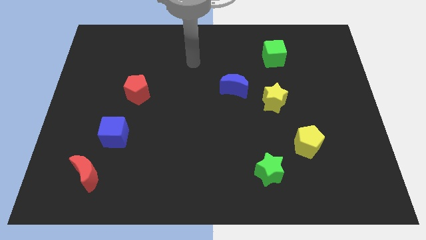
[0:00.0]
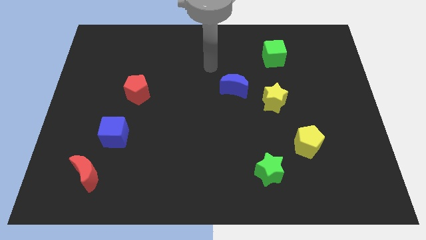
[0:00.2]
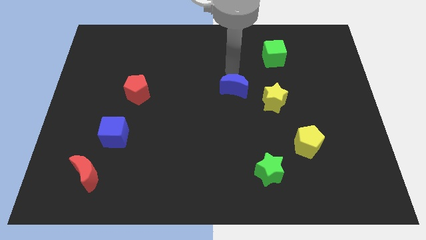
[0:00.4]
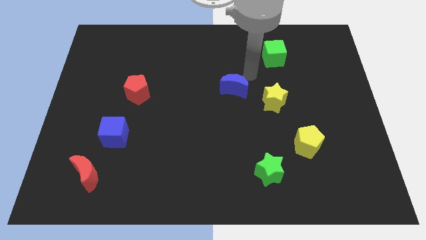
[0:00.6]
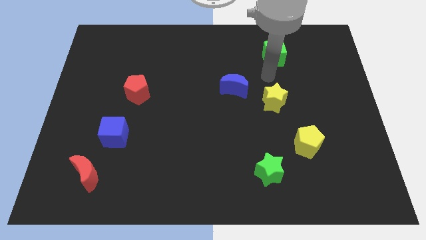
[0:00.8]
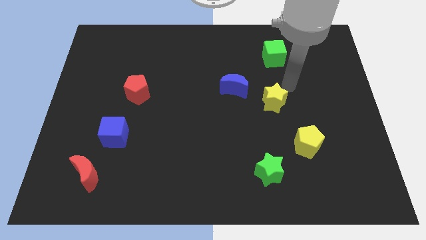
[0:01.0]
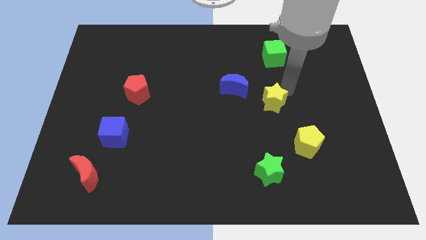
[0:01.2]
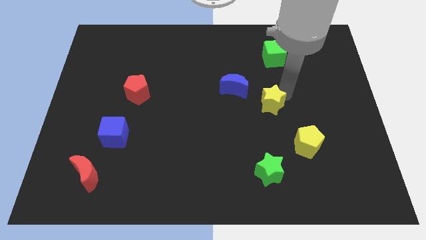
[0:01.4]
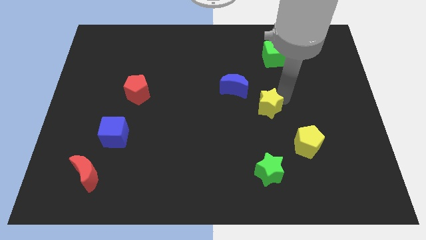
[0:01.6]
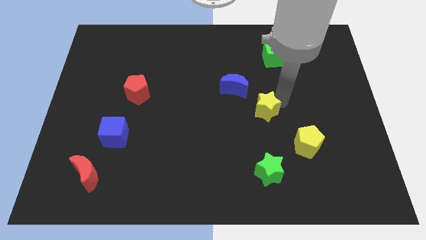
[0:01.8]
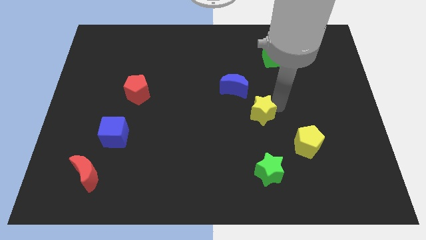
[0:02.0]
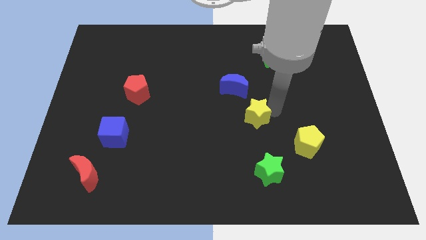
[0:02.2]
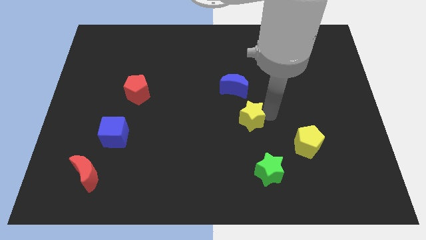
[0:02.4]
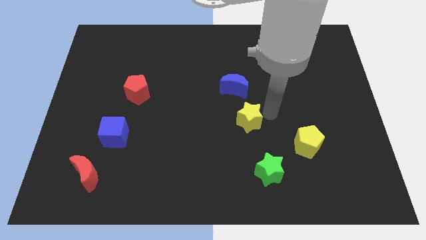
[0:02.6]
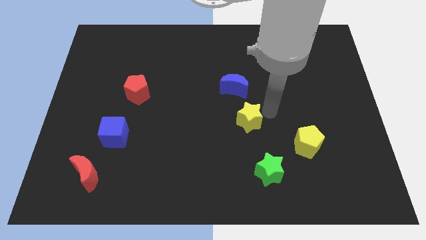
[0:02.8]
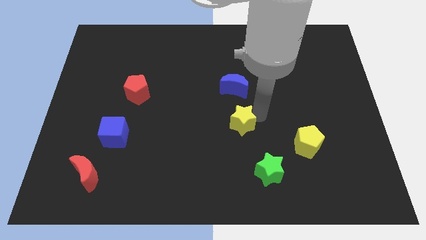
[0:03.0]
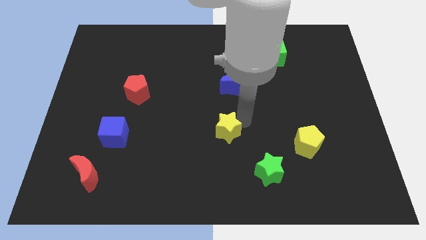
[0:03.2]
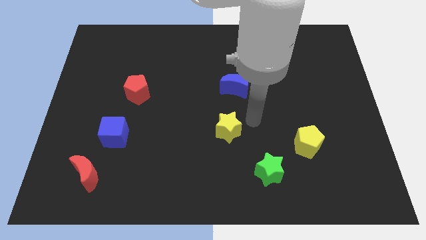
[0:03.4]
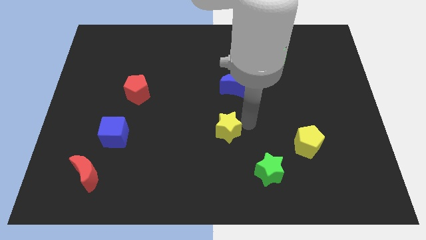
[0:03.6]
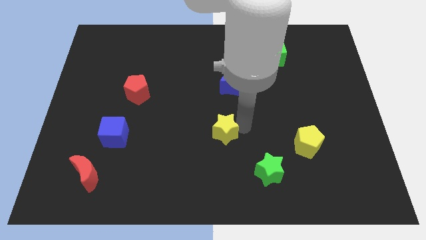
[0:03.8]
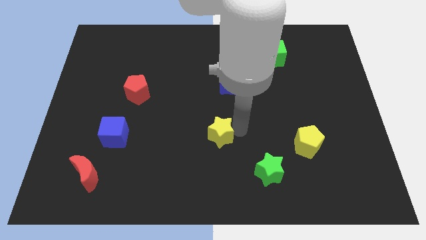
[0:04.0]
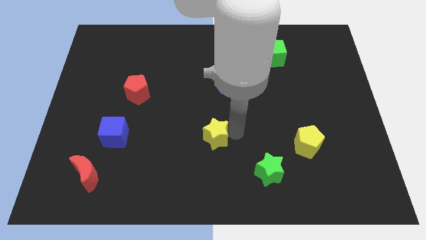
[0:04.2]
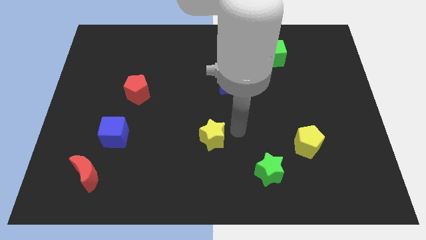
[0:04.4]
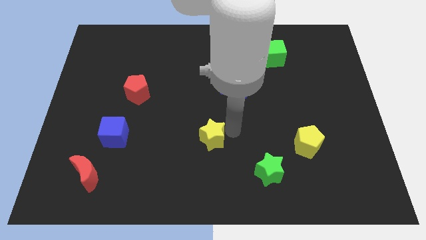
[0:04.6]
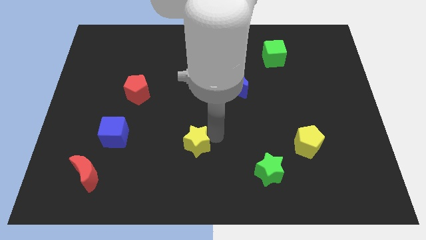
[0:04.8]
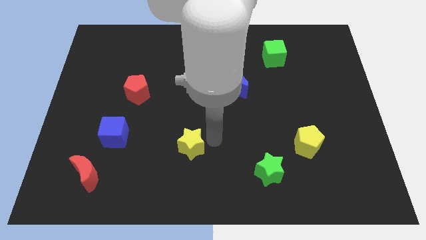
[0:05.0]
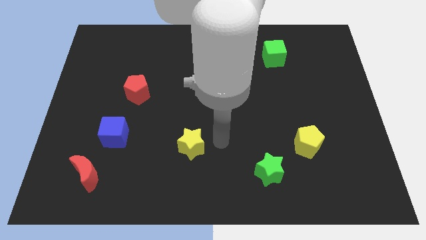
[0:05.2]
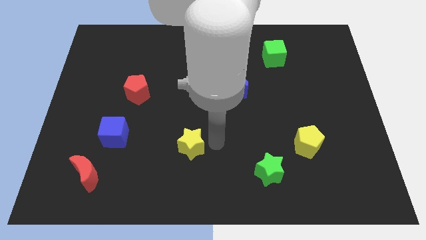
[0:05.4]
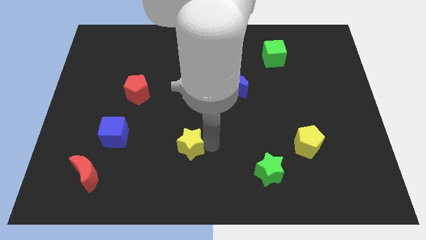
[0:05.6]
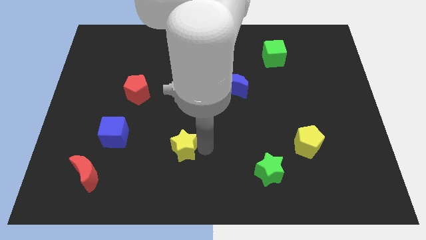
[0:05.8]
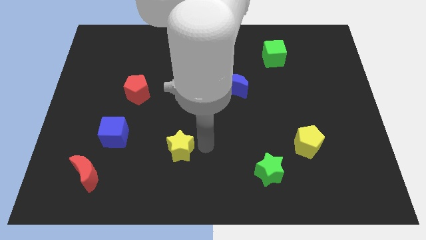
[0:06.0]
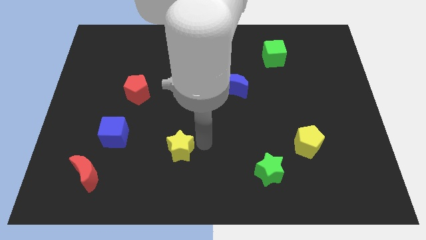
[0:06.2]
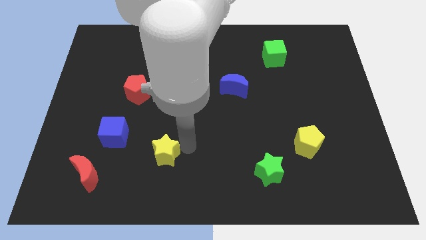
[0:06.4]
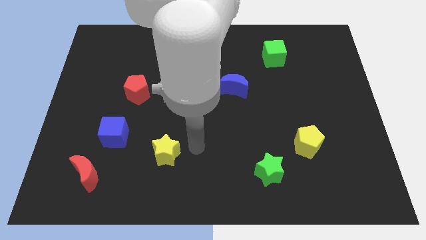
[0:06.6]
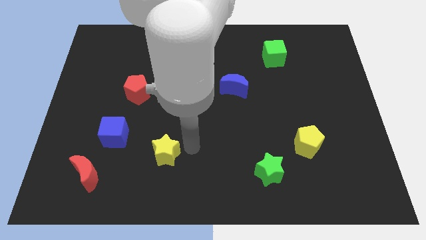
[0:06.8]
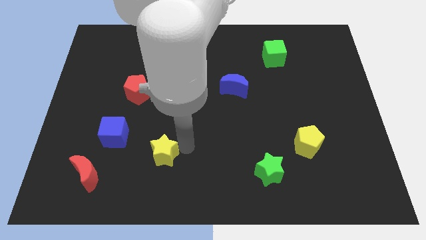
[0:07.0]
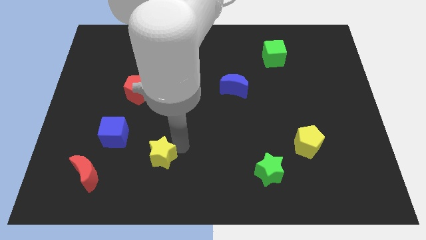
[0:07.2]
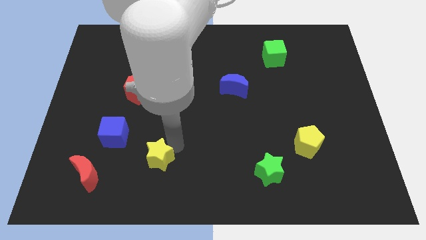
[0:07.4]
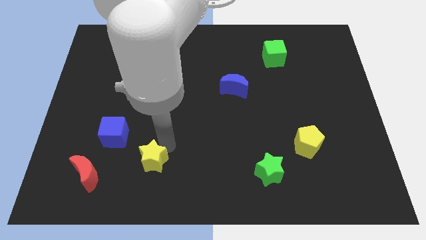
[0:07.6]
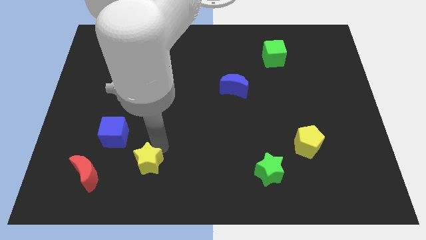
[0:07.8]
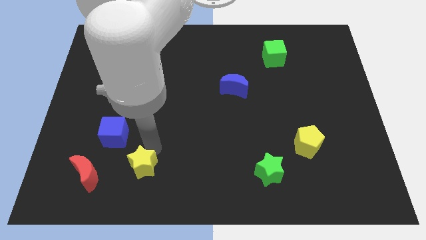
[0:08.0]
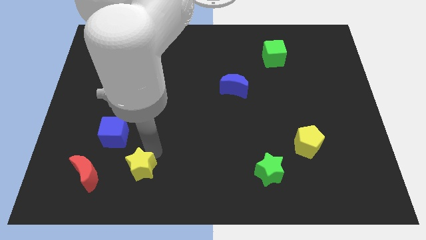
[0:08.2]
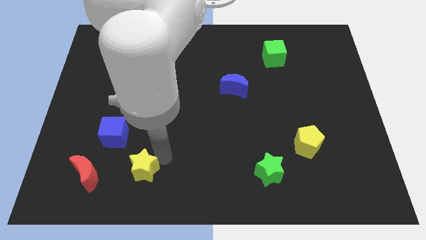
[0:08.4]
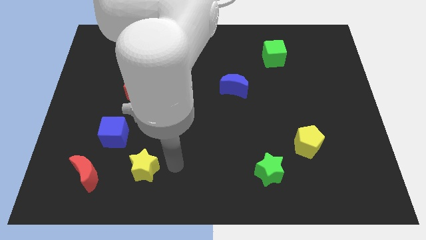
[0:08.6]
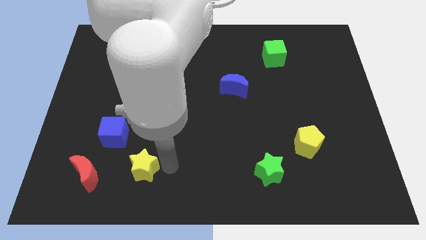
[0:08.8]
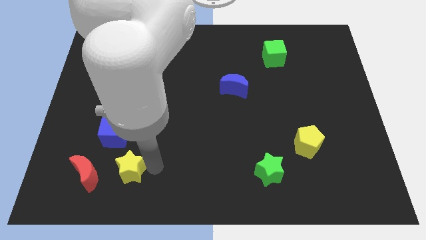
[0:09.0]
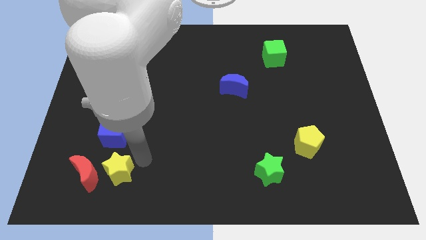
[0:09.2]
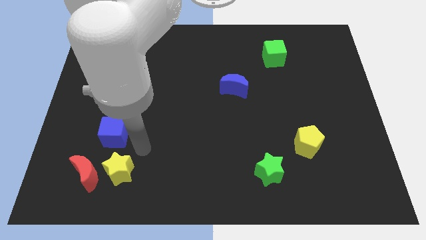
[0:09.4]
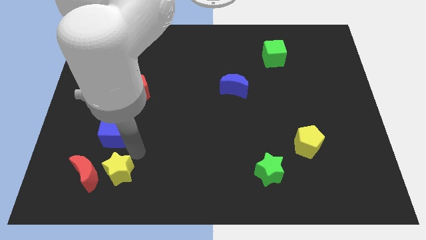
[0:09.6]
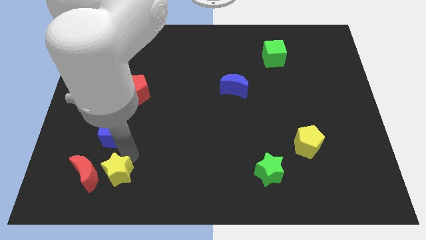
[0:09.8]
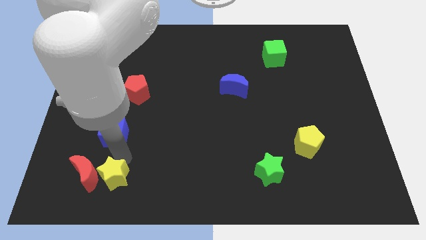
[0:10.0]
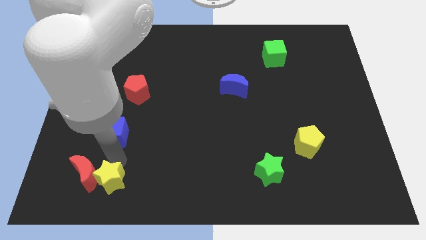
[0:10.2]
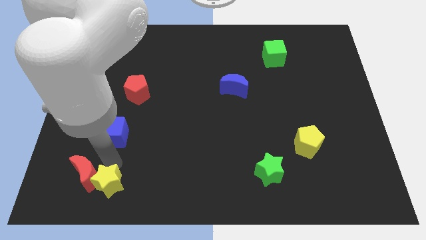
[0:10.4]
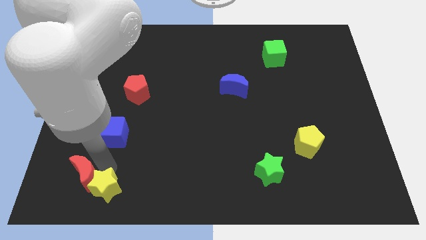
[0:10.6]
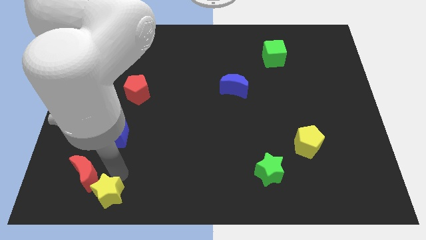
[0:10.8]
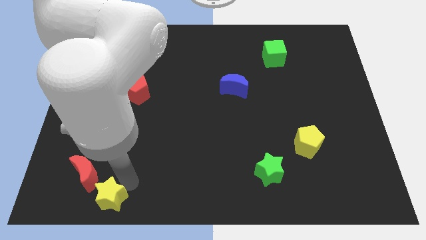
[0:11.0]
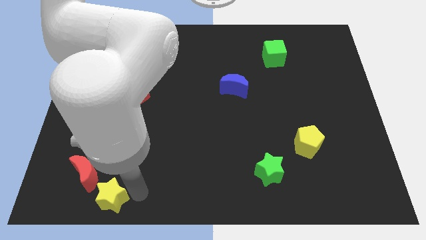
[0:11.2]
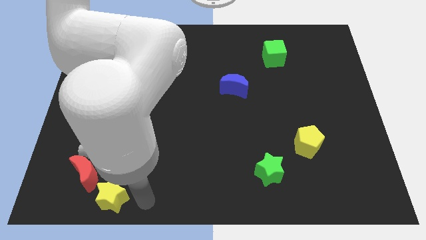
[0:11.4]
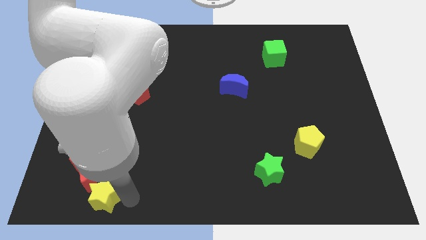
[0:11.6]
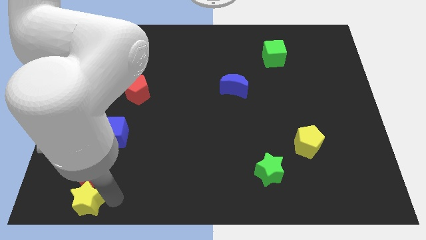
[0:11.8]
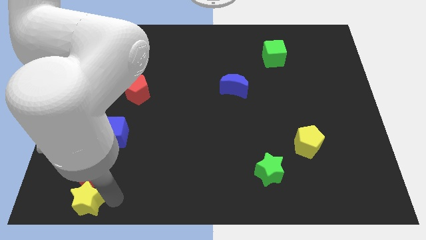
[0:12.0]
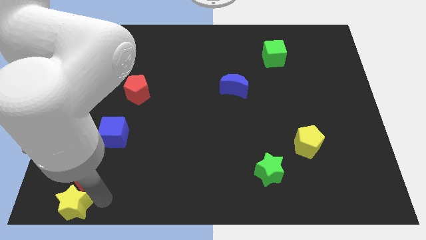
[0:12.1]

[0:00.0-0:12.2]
move the yellow star to the bottom left
